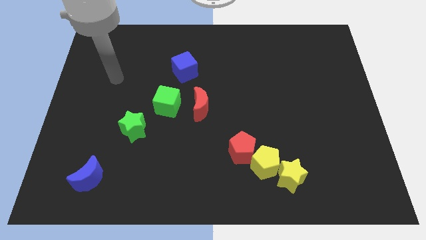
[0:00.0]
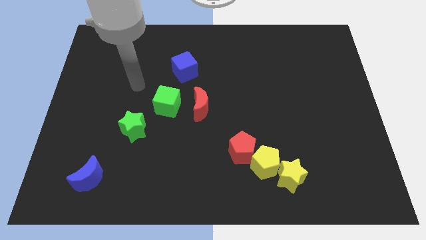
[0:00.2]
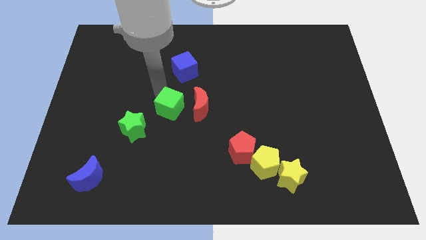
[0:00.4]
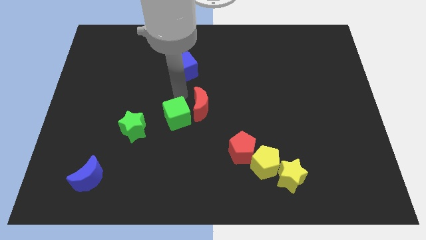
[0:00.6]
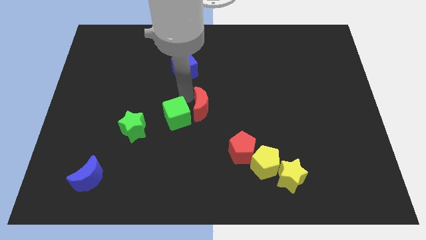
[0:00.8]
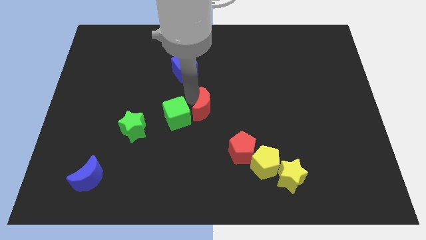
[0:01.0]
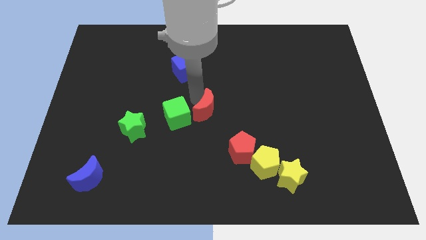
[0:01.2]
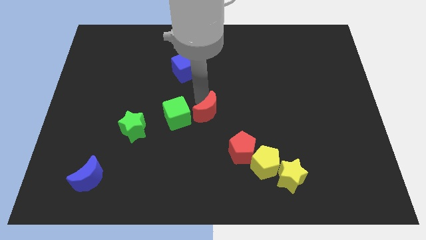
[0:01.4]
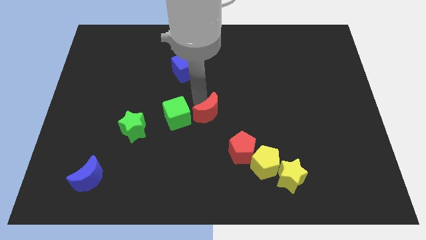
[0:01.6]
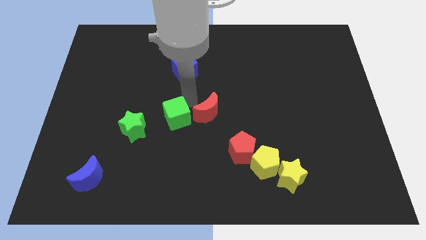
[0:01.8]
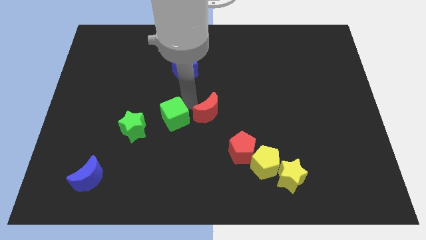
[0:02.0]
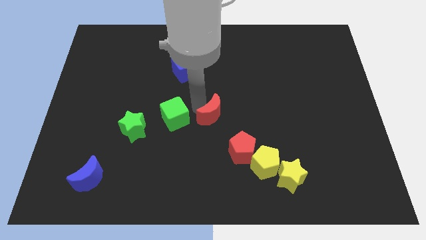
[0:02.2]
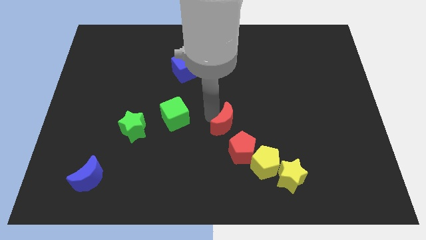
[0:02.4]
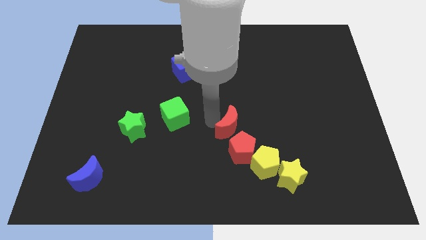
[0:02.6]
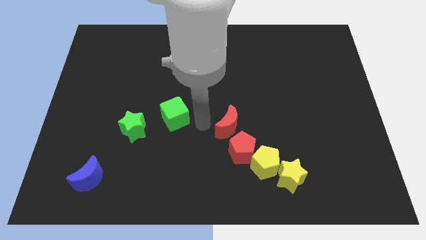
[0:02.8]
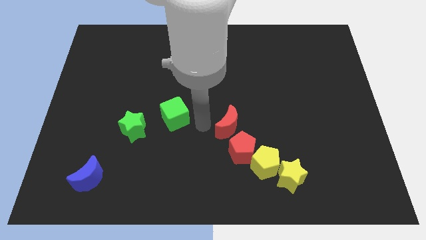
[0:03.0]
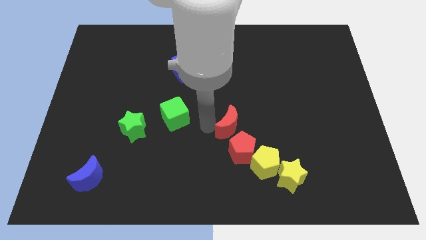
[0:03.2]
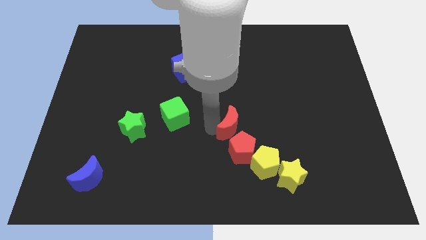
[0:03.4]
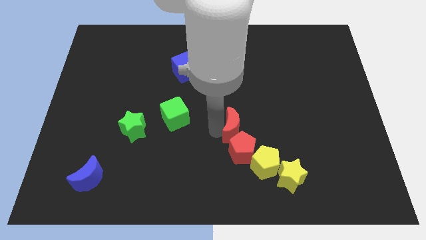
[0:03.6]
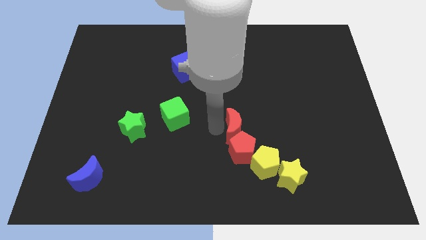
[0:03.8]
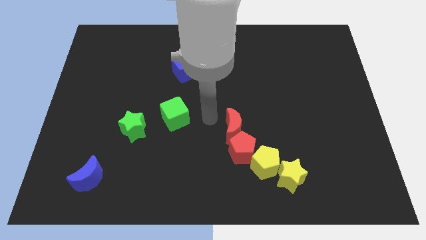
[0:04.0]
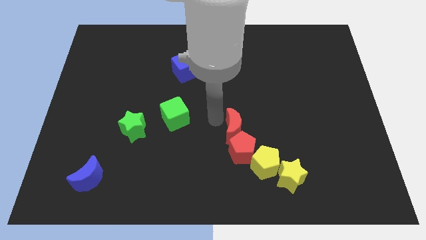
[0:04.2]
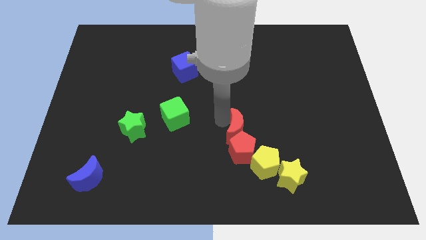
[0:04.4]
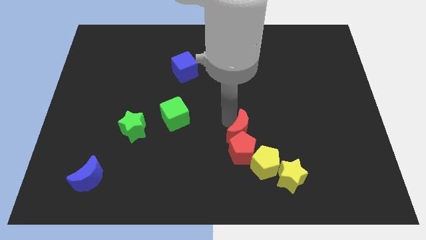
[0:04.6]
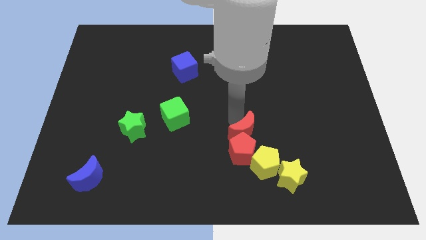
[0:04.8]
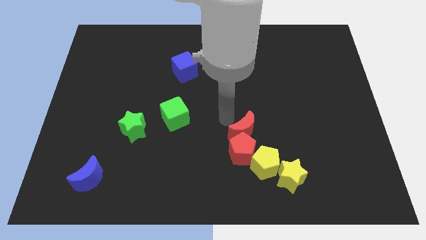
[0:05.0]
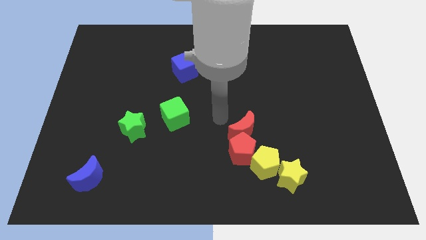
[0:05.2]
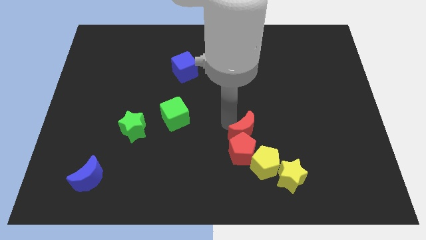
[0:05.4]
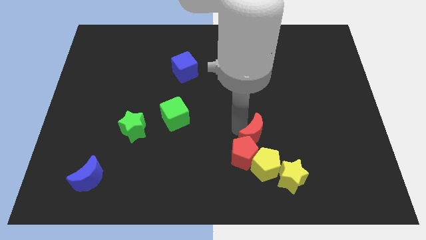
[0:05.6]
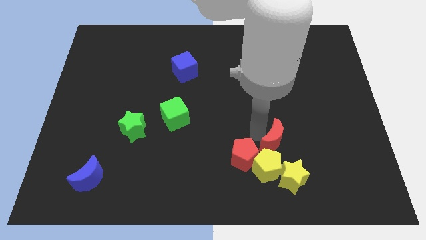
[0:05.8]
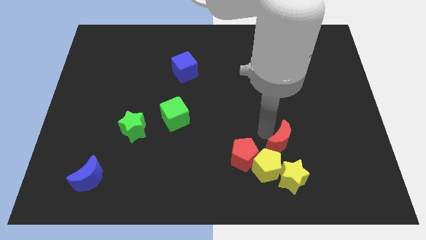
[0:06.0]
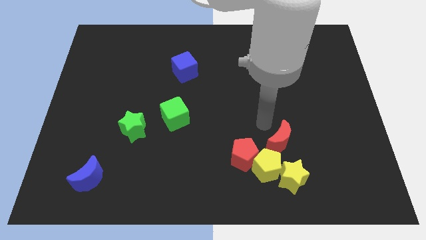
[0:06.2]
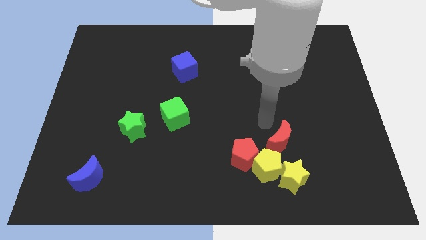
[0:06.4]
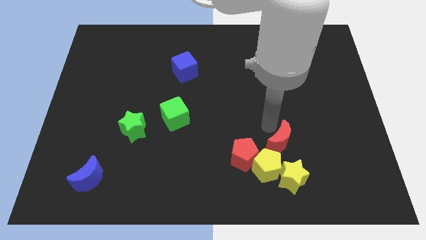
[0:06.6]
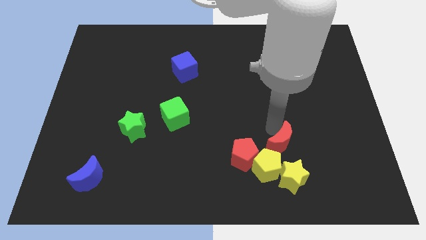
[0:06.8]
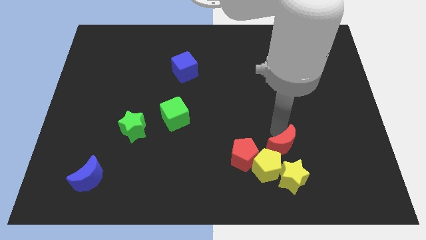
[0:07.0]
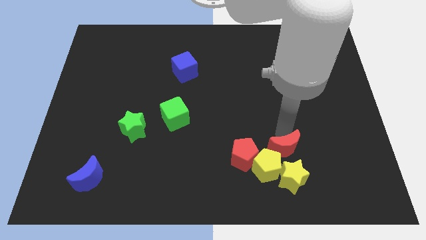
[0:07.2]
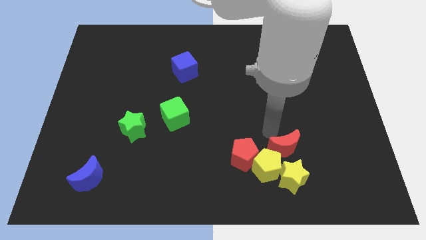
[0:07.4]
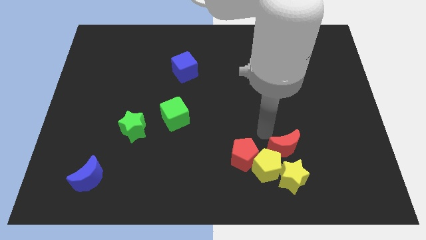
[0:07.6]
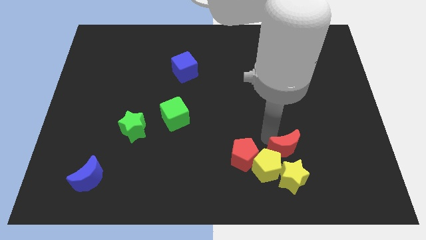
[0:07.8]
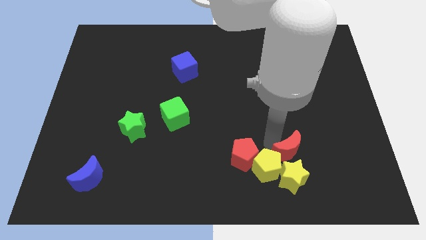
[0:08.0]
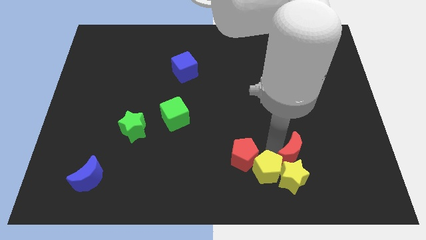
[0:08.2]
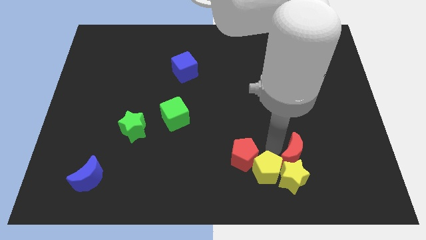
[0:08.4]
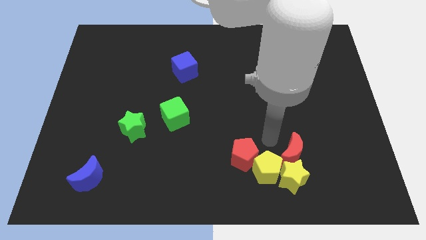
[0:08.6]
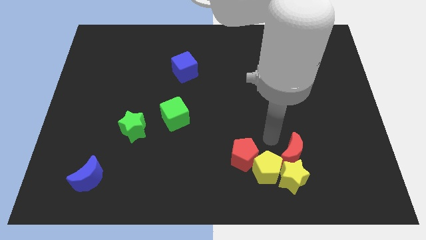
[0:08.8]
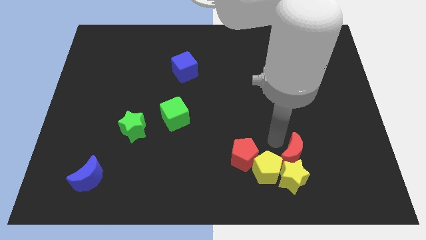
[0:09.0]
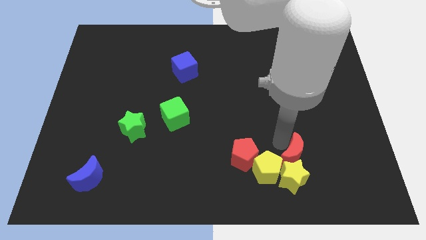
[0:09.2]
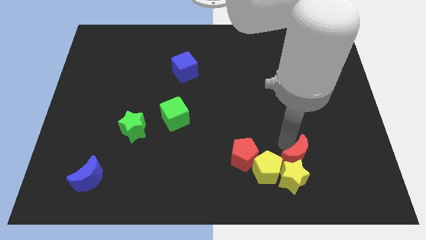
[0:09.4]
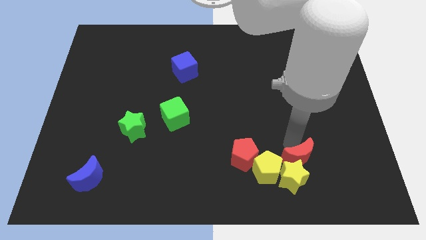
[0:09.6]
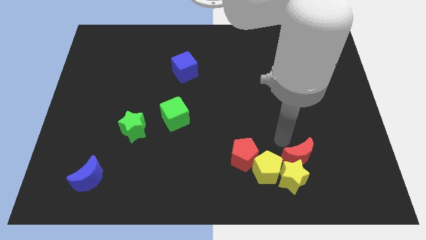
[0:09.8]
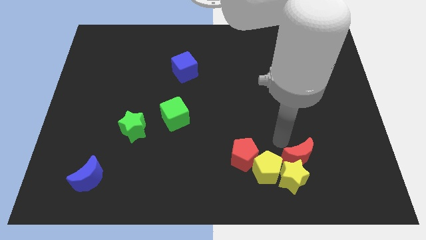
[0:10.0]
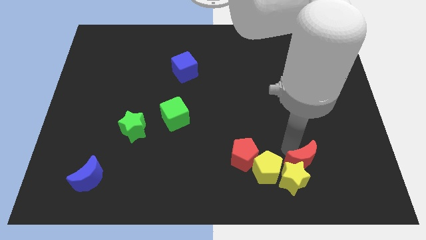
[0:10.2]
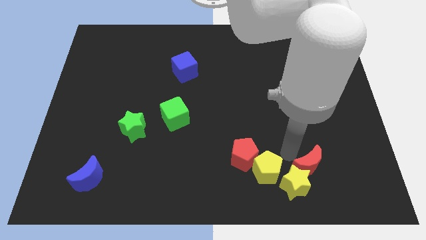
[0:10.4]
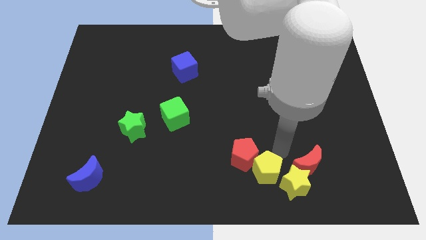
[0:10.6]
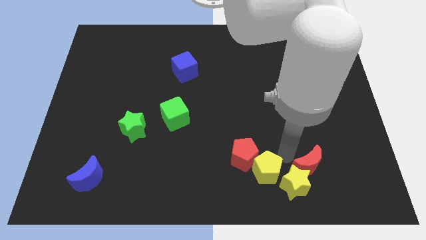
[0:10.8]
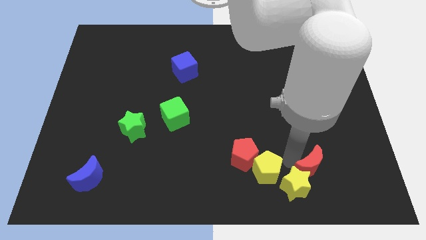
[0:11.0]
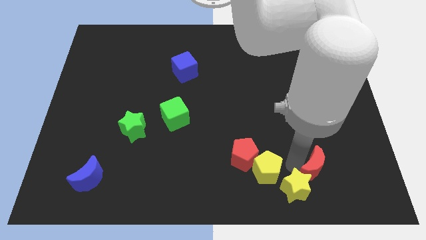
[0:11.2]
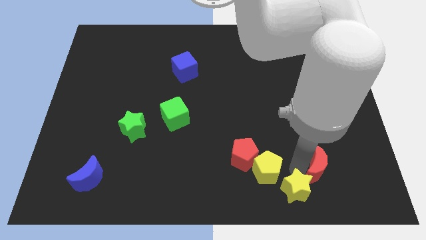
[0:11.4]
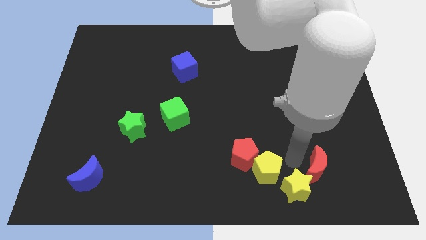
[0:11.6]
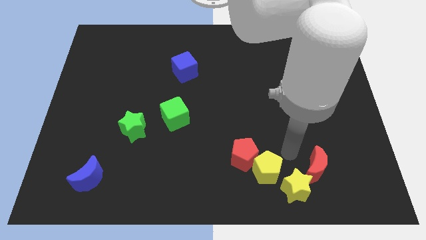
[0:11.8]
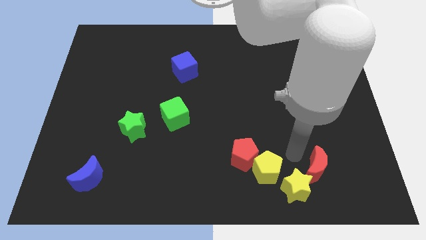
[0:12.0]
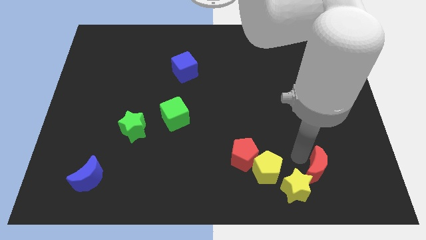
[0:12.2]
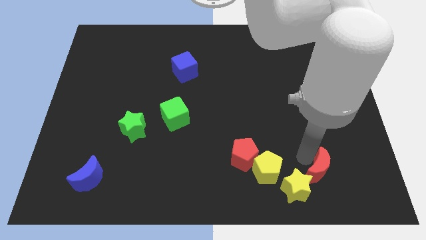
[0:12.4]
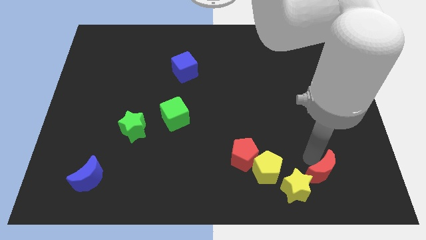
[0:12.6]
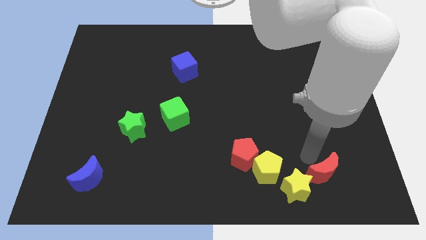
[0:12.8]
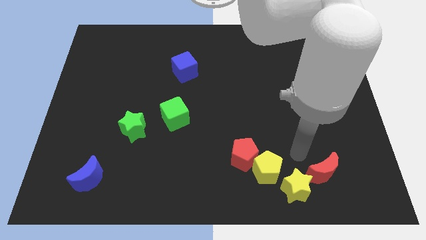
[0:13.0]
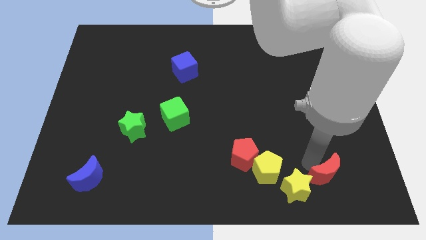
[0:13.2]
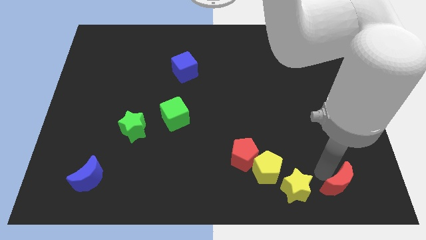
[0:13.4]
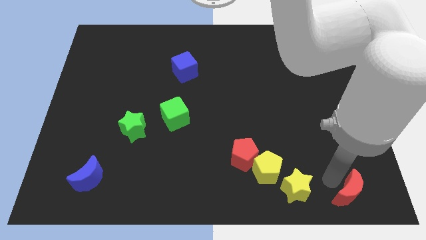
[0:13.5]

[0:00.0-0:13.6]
move the red moon to the bottom right corner
